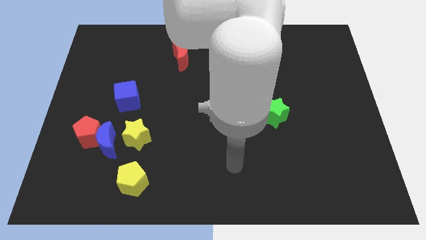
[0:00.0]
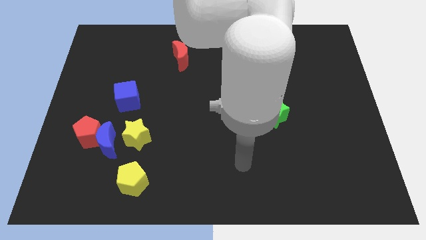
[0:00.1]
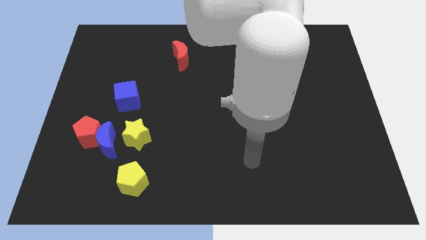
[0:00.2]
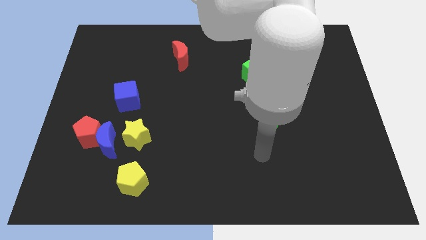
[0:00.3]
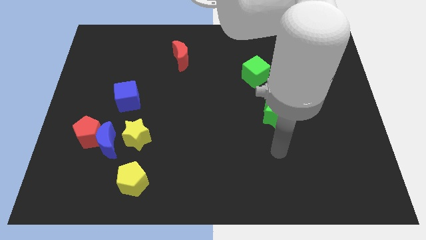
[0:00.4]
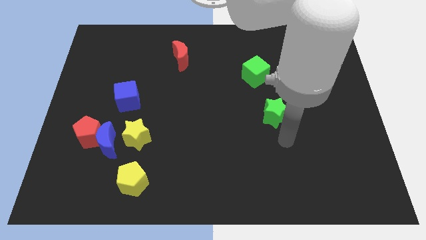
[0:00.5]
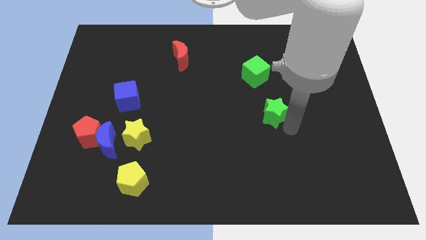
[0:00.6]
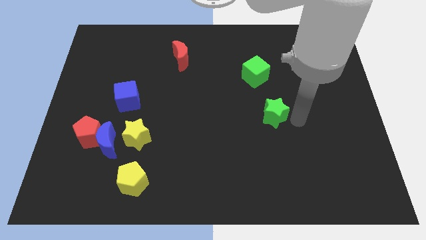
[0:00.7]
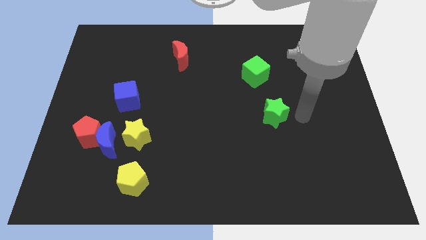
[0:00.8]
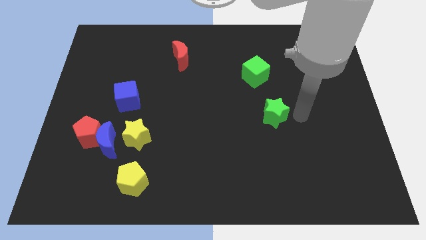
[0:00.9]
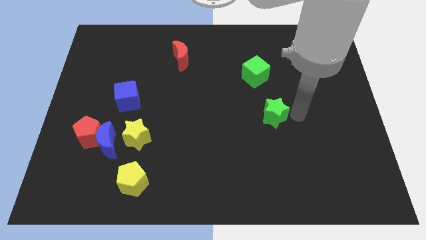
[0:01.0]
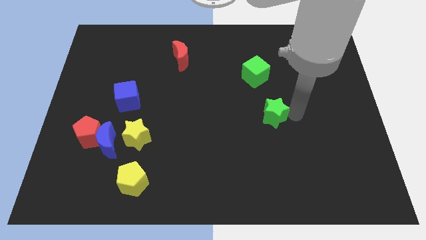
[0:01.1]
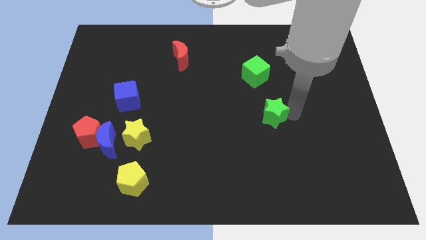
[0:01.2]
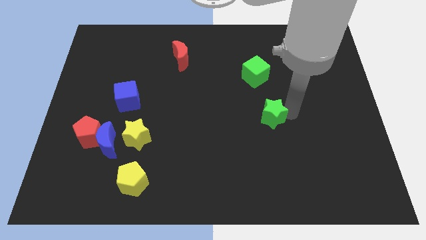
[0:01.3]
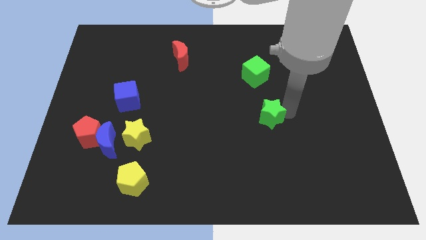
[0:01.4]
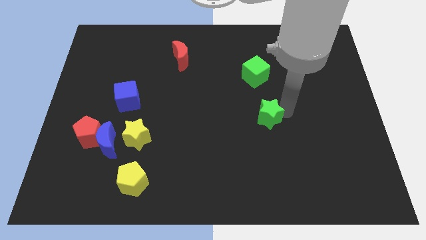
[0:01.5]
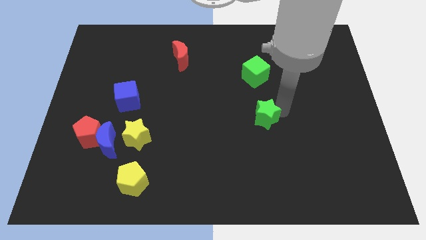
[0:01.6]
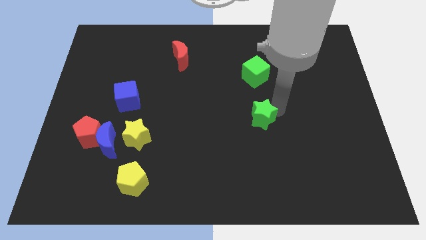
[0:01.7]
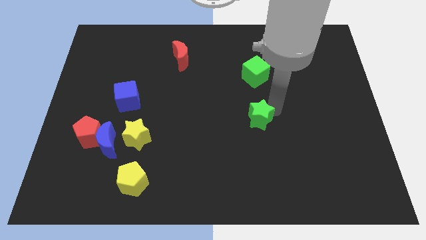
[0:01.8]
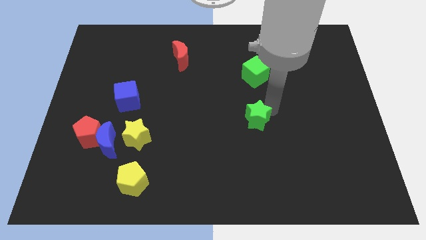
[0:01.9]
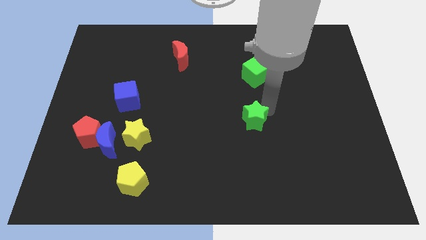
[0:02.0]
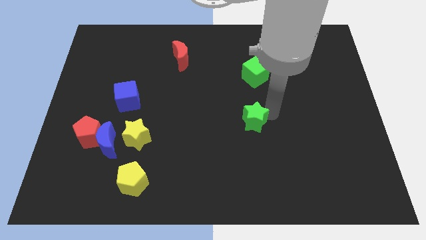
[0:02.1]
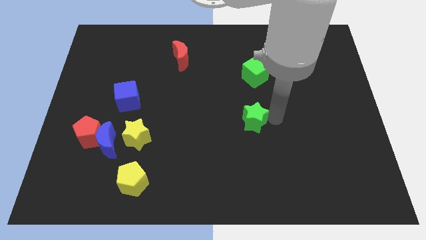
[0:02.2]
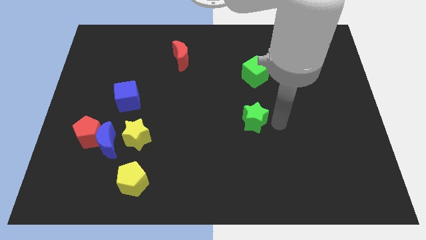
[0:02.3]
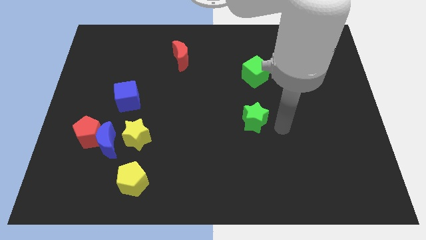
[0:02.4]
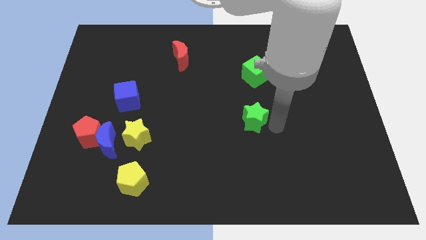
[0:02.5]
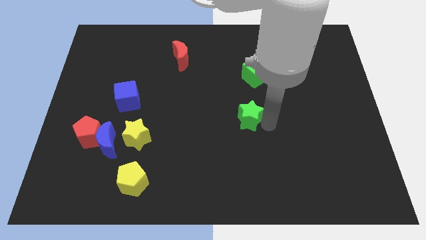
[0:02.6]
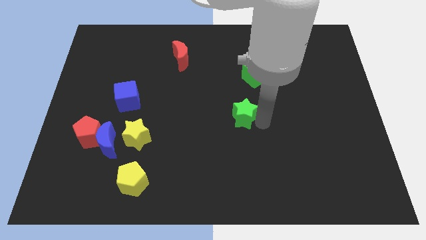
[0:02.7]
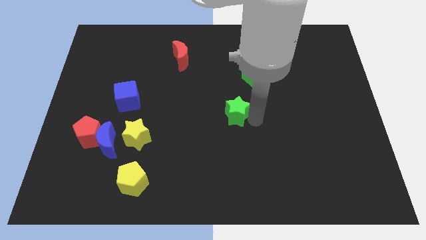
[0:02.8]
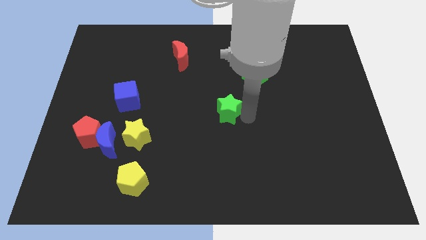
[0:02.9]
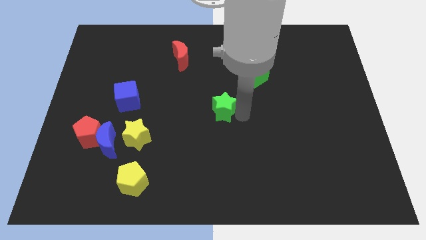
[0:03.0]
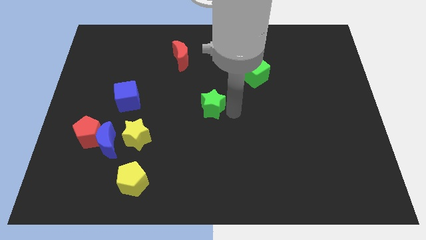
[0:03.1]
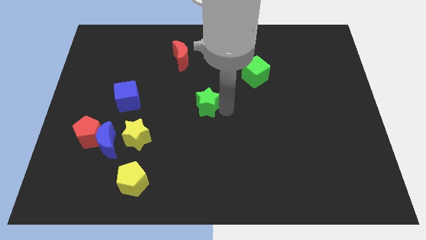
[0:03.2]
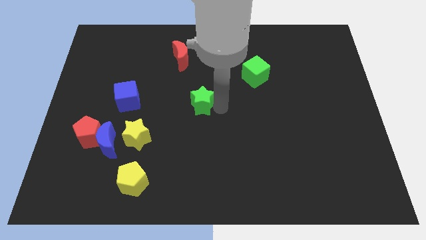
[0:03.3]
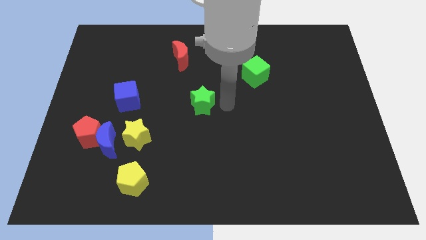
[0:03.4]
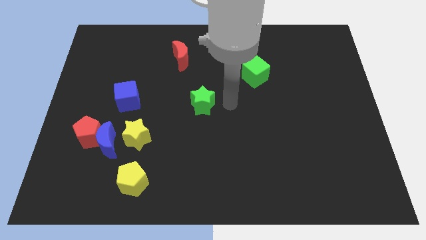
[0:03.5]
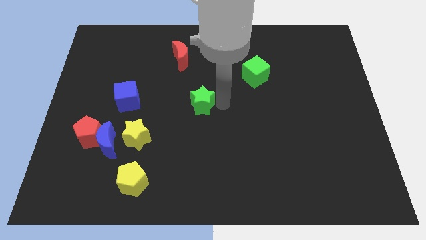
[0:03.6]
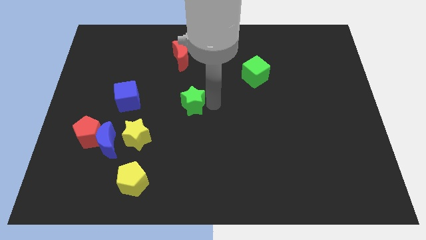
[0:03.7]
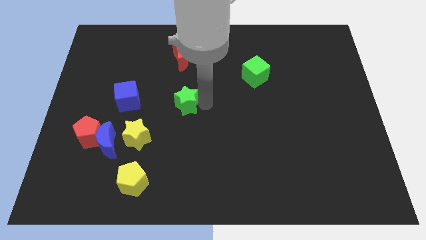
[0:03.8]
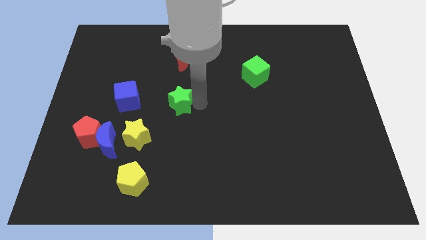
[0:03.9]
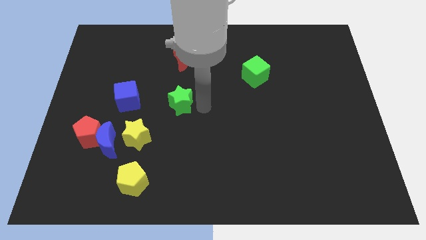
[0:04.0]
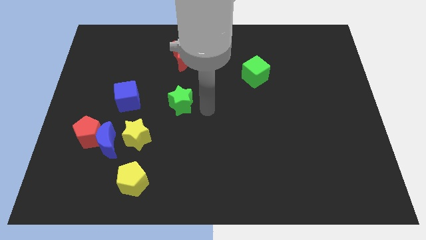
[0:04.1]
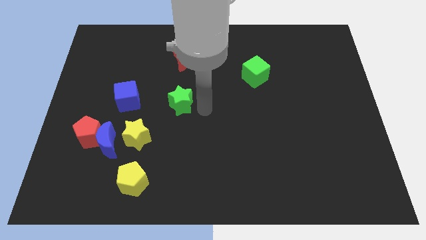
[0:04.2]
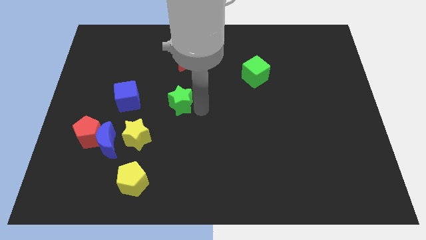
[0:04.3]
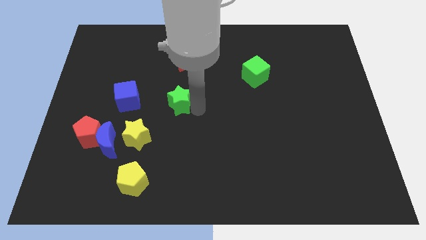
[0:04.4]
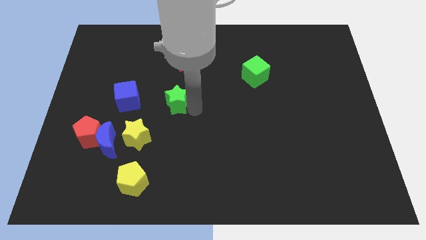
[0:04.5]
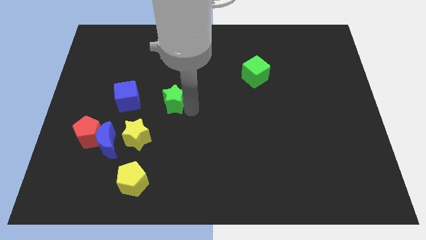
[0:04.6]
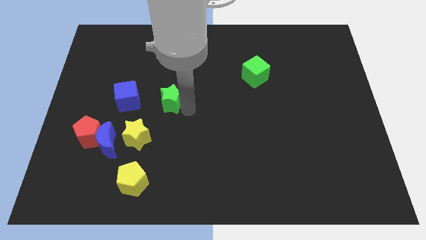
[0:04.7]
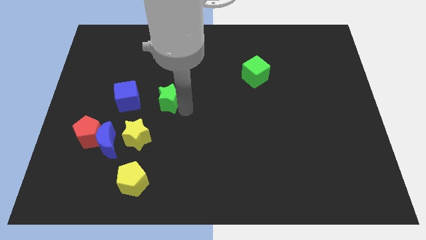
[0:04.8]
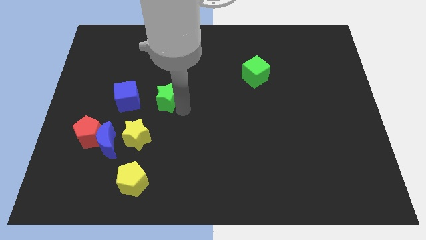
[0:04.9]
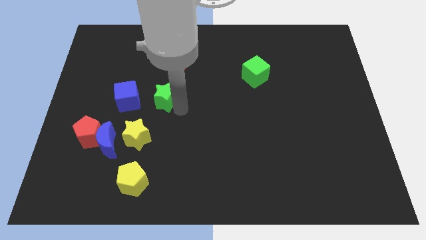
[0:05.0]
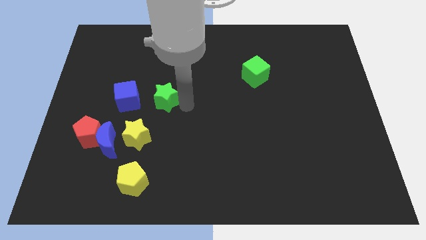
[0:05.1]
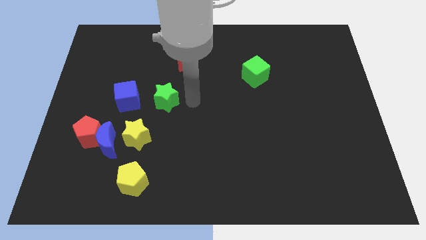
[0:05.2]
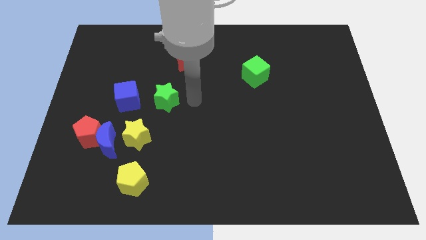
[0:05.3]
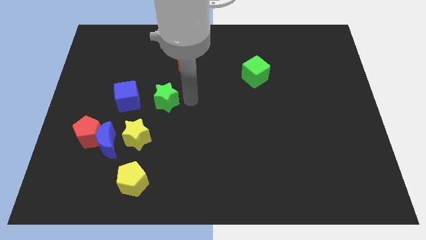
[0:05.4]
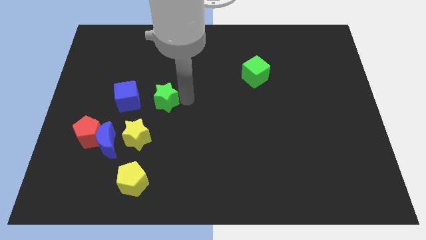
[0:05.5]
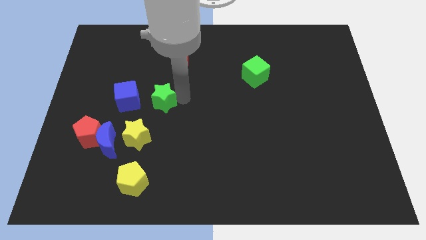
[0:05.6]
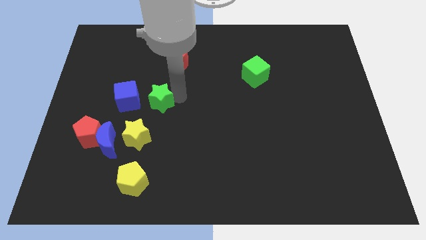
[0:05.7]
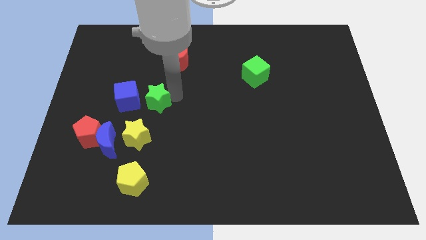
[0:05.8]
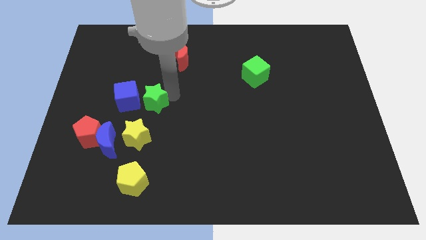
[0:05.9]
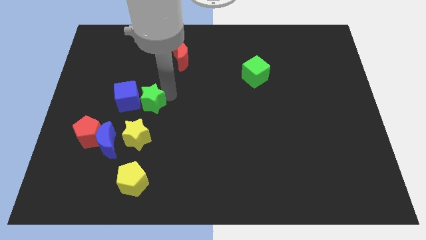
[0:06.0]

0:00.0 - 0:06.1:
slide the green star close to the blue cube

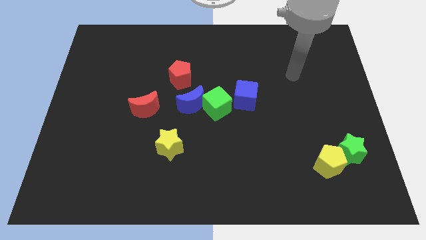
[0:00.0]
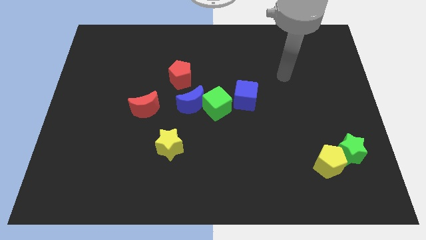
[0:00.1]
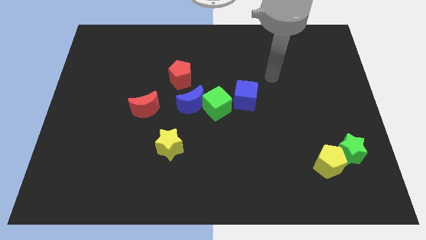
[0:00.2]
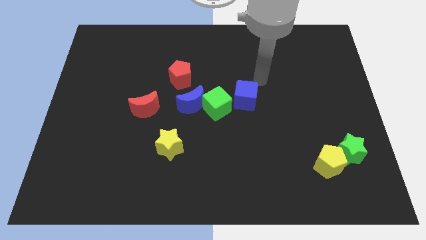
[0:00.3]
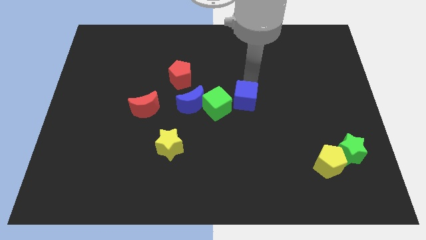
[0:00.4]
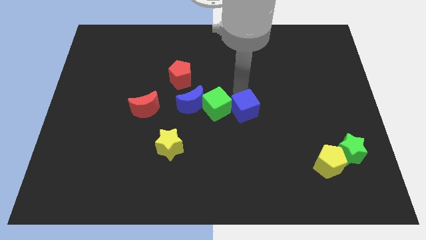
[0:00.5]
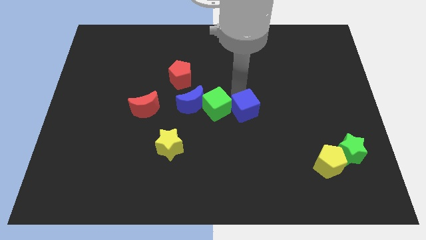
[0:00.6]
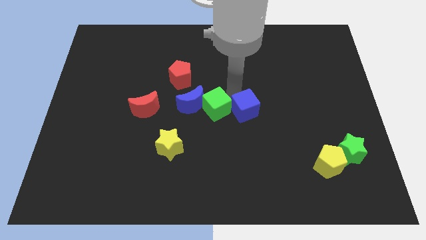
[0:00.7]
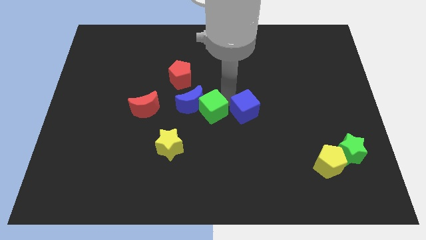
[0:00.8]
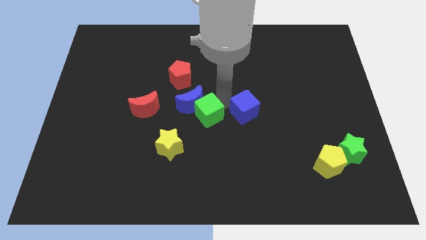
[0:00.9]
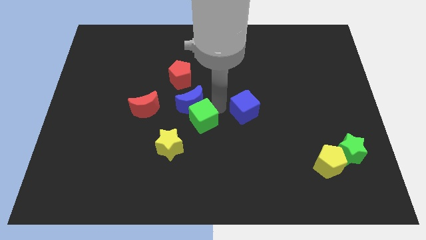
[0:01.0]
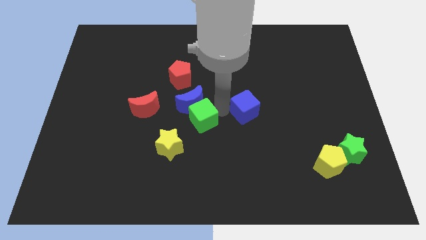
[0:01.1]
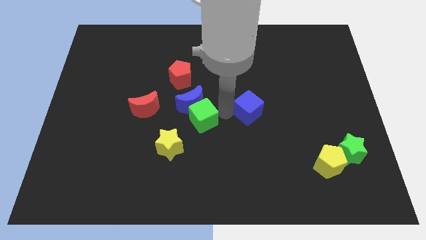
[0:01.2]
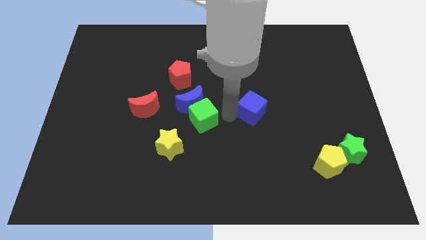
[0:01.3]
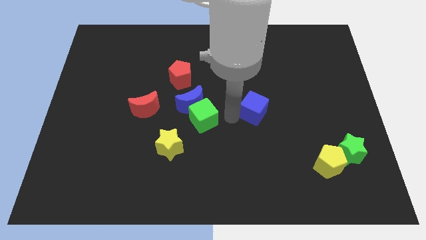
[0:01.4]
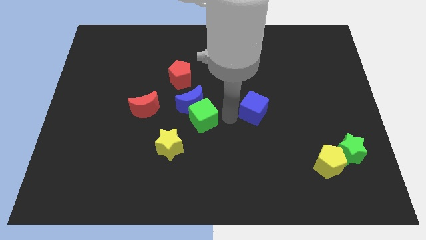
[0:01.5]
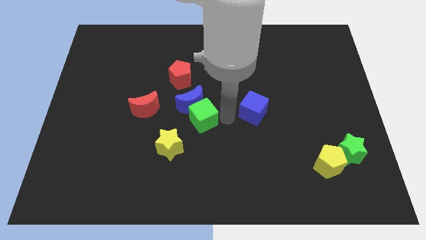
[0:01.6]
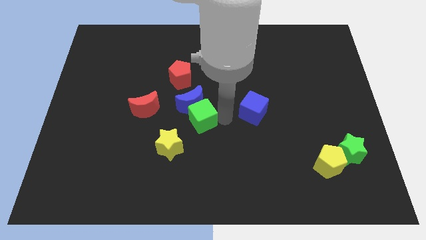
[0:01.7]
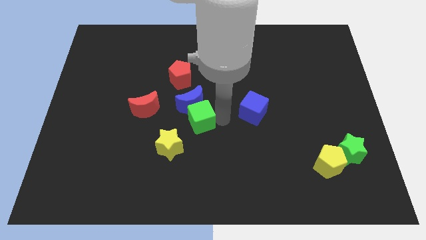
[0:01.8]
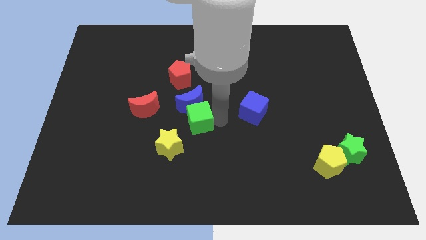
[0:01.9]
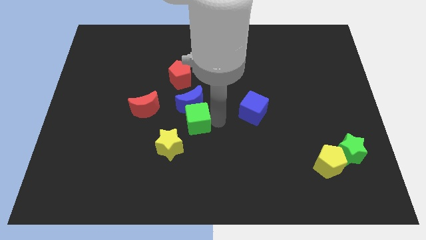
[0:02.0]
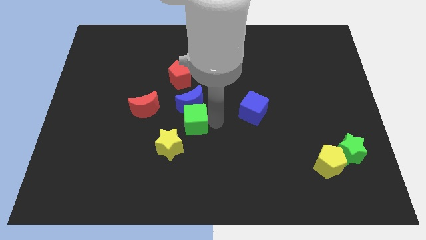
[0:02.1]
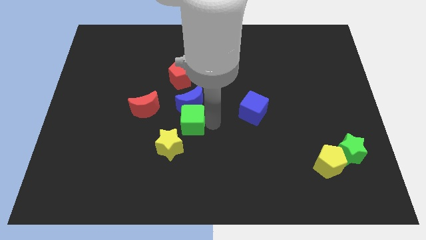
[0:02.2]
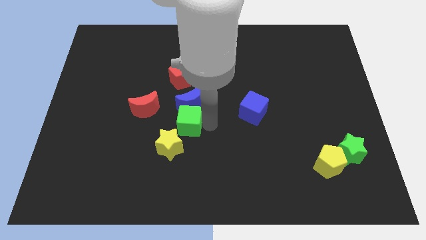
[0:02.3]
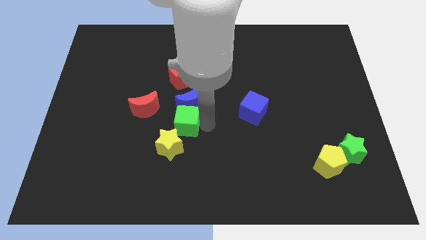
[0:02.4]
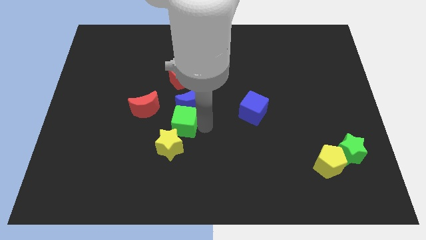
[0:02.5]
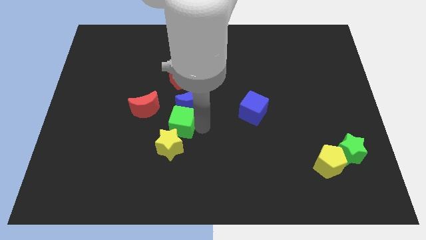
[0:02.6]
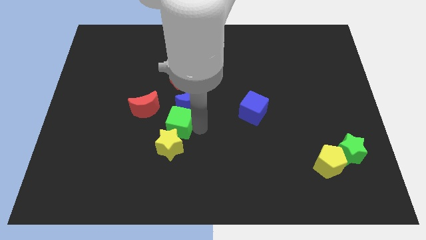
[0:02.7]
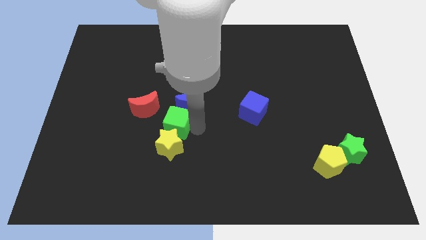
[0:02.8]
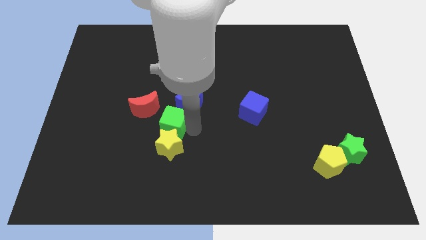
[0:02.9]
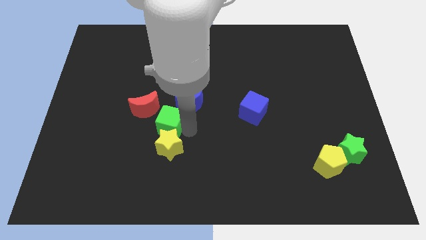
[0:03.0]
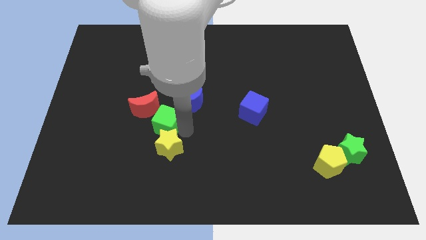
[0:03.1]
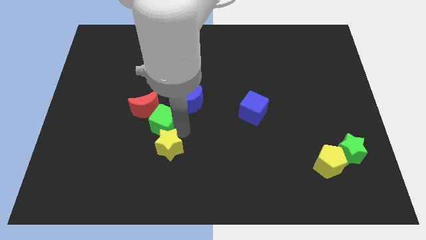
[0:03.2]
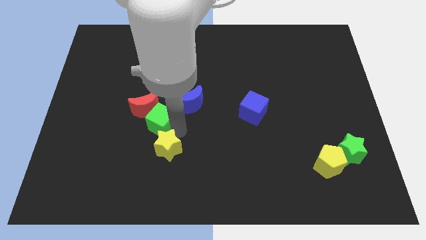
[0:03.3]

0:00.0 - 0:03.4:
slide the green cube next to the red moon
